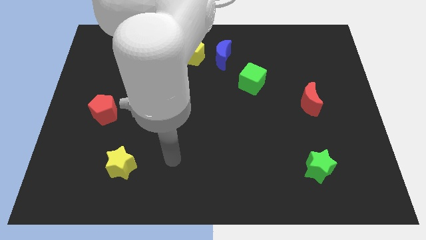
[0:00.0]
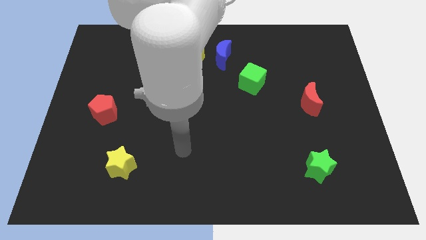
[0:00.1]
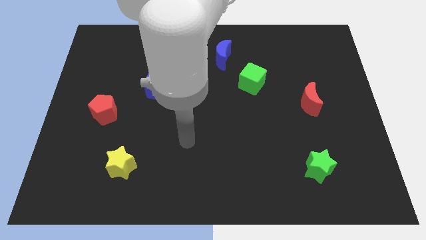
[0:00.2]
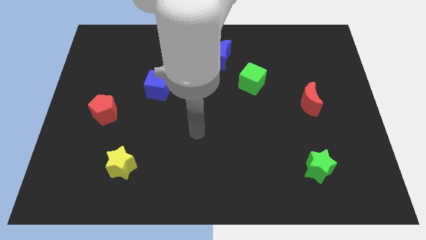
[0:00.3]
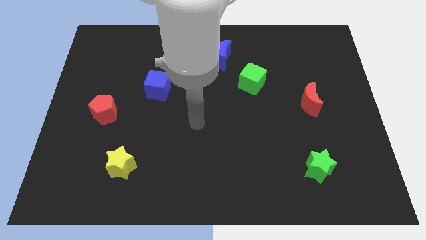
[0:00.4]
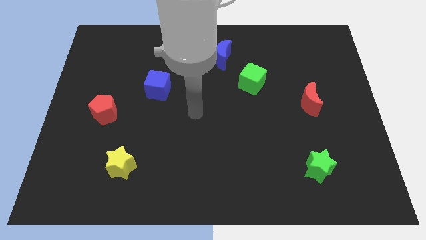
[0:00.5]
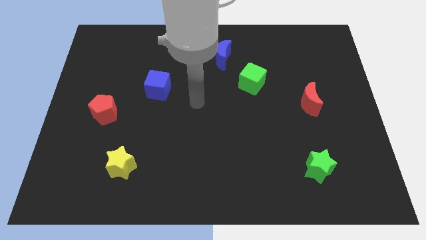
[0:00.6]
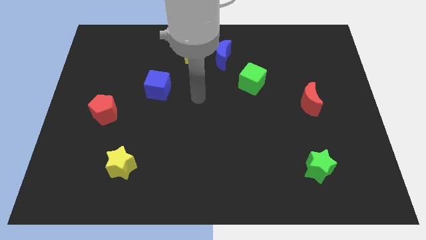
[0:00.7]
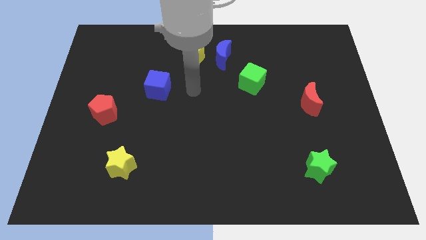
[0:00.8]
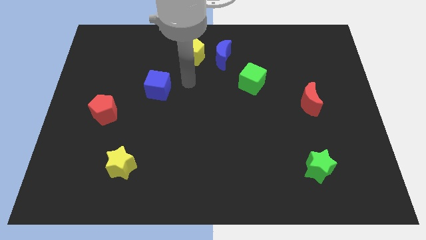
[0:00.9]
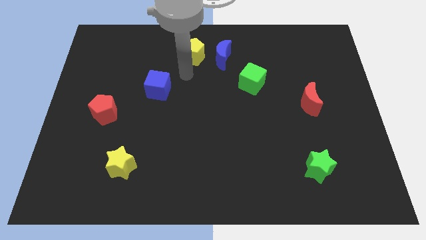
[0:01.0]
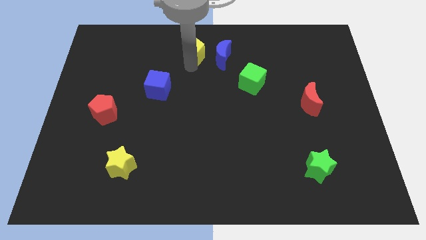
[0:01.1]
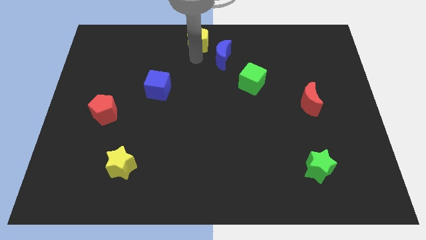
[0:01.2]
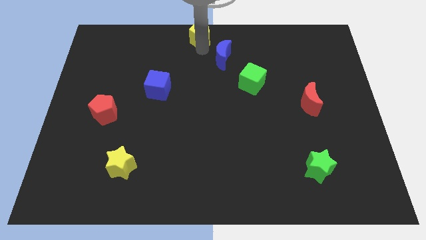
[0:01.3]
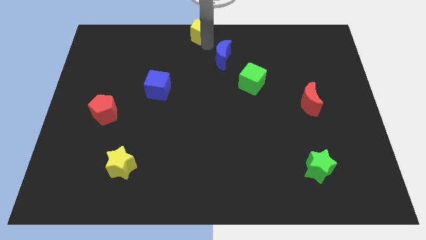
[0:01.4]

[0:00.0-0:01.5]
separate the blue moon from the yellow pentagon

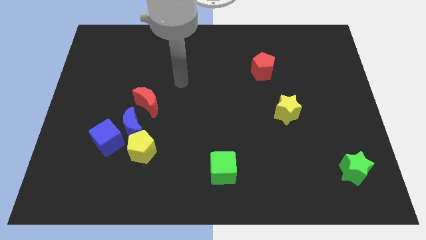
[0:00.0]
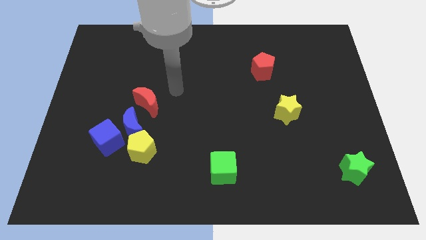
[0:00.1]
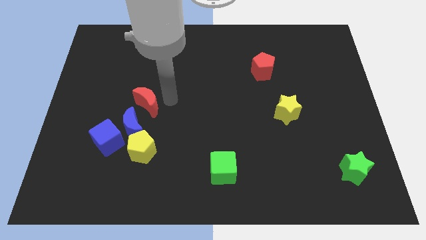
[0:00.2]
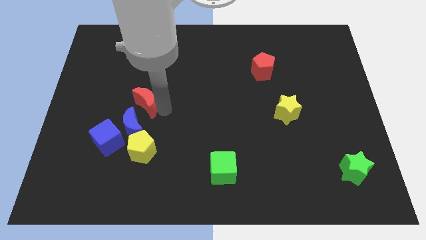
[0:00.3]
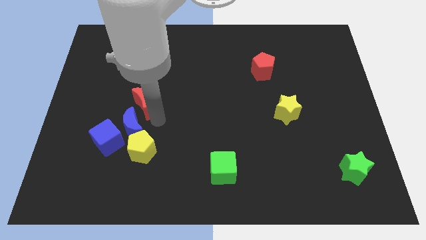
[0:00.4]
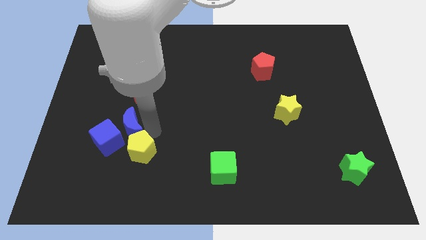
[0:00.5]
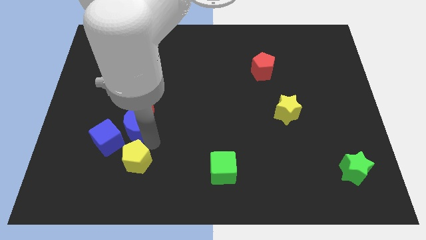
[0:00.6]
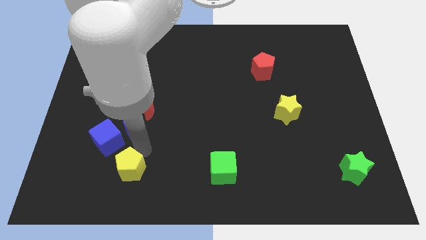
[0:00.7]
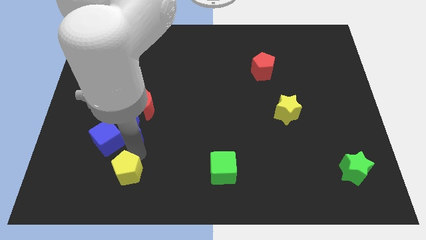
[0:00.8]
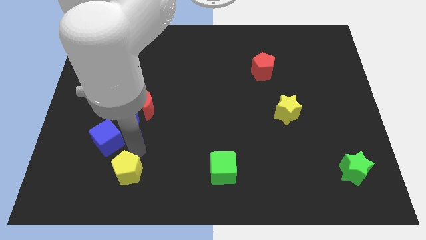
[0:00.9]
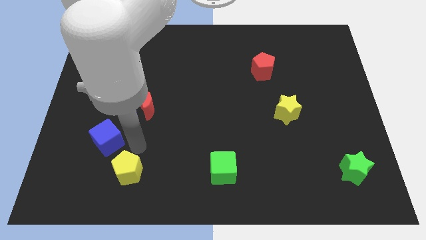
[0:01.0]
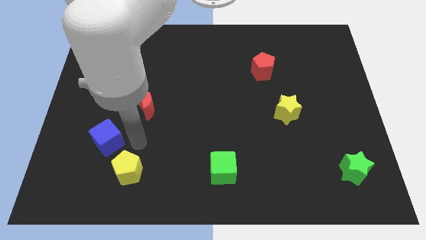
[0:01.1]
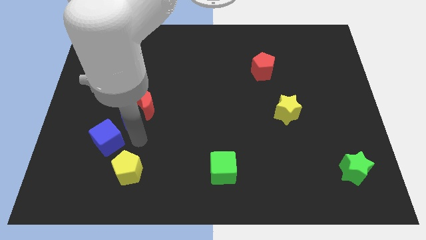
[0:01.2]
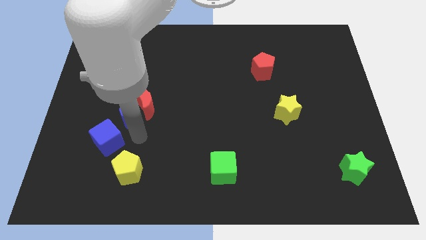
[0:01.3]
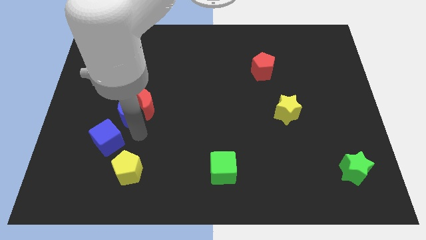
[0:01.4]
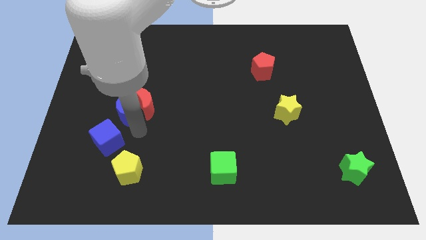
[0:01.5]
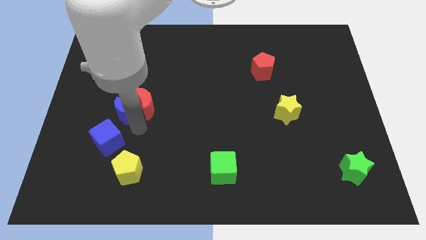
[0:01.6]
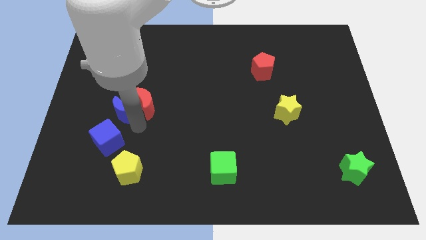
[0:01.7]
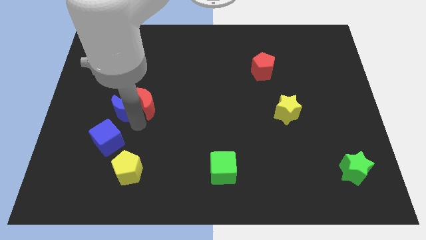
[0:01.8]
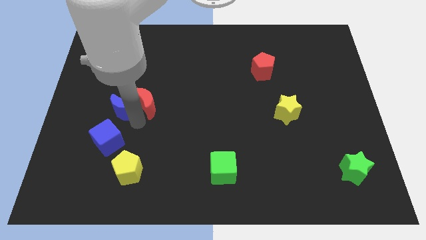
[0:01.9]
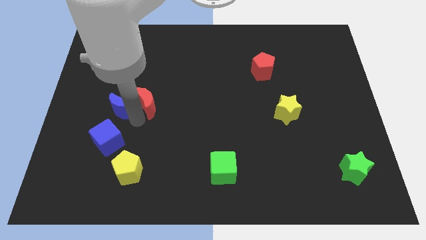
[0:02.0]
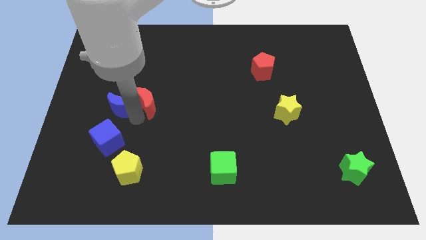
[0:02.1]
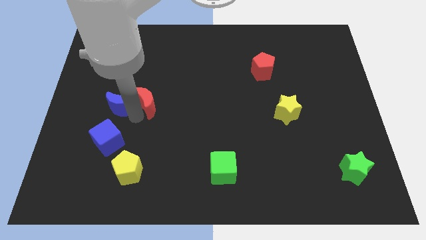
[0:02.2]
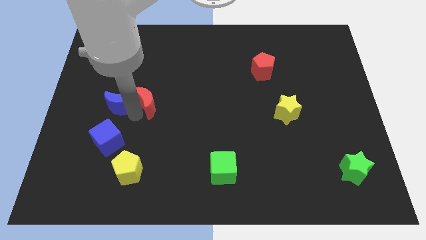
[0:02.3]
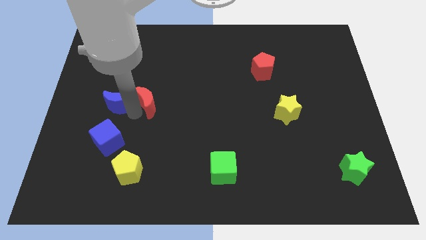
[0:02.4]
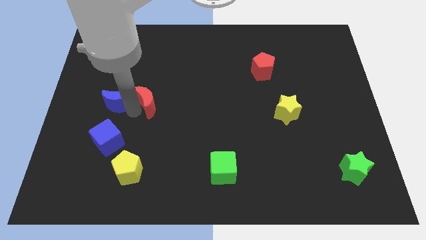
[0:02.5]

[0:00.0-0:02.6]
move the blue moon away from the group of blocks

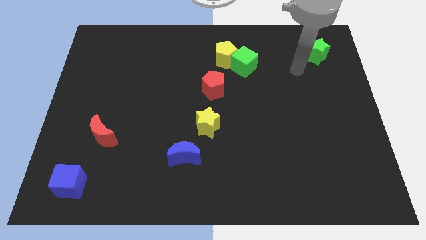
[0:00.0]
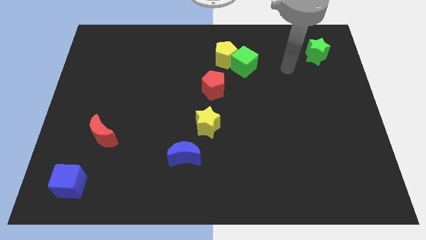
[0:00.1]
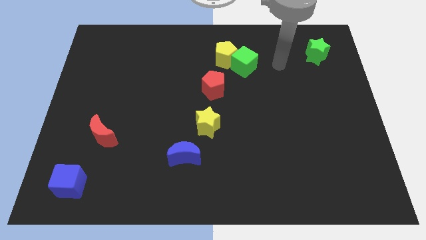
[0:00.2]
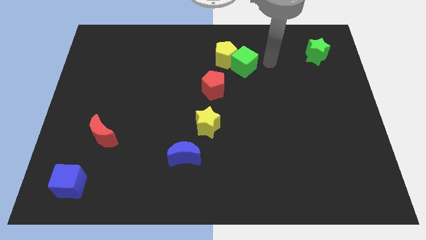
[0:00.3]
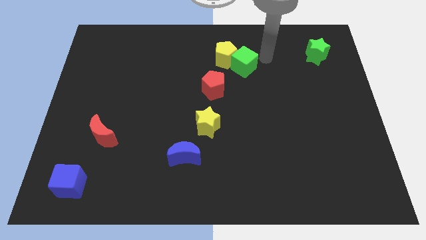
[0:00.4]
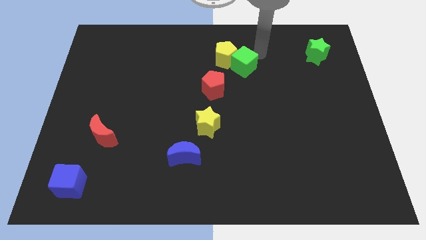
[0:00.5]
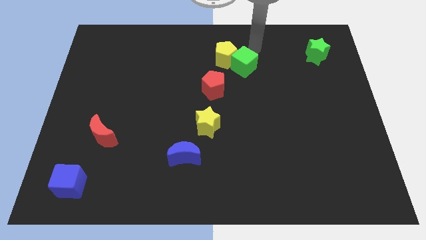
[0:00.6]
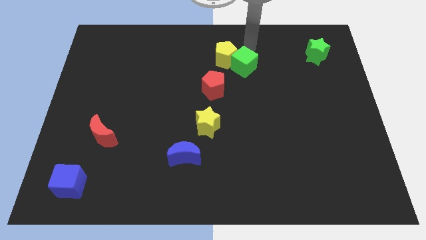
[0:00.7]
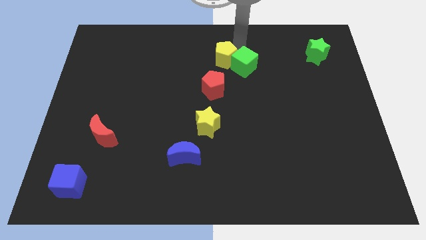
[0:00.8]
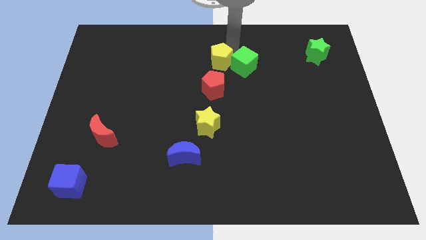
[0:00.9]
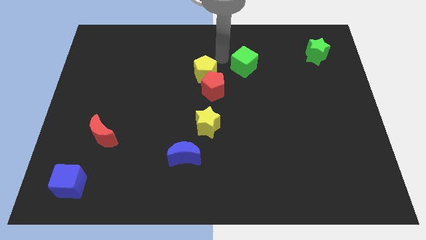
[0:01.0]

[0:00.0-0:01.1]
move the green cube away from the yellow pentagon

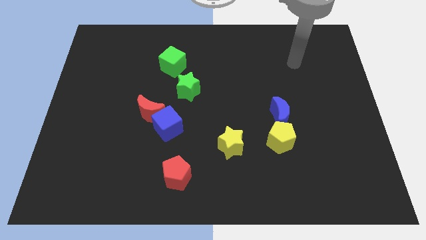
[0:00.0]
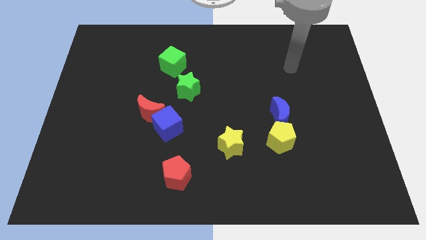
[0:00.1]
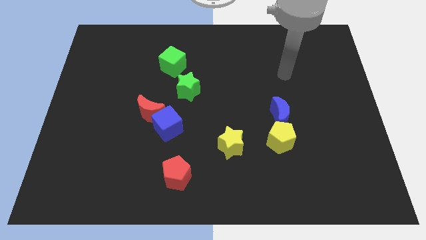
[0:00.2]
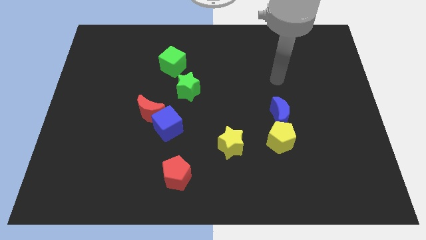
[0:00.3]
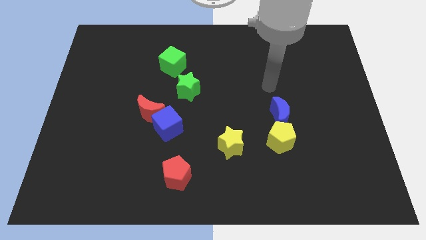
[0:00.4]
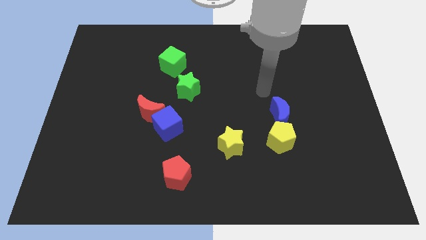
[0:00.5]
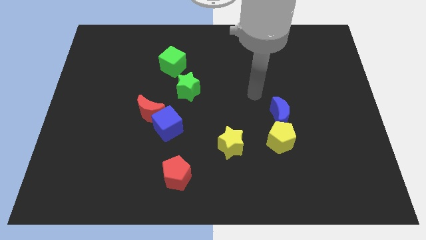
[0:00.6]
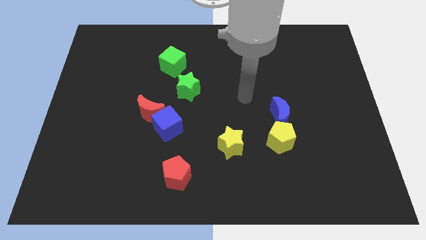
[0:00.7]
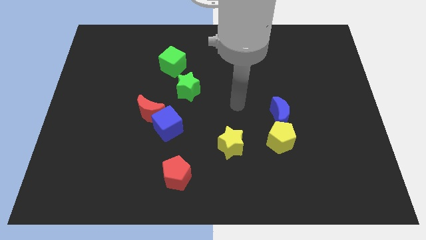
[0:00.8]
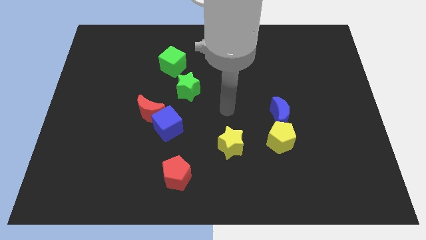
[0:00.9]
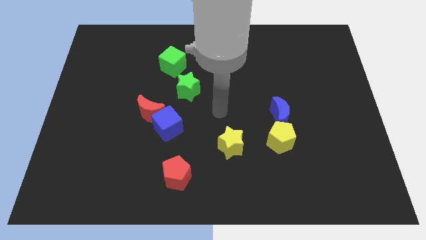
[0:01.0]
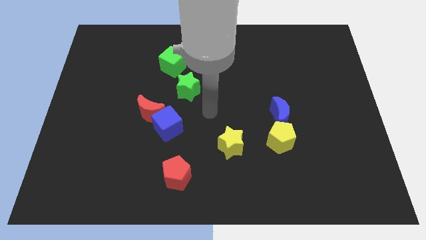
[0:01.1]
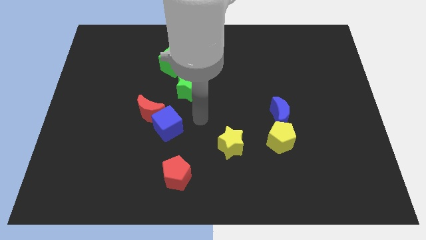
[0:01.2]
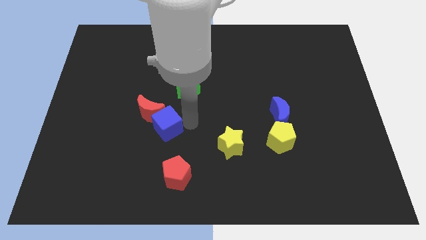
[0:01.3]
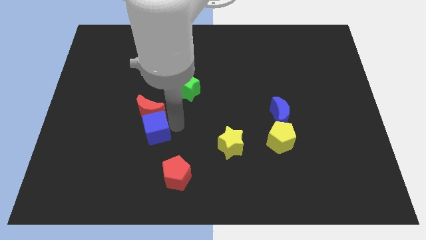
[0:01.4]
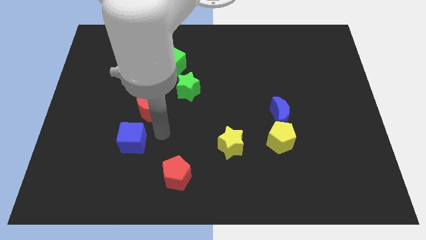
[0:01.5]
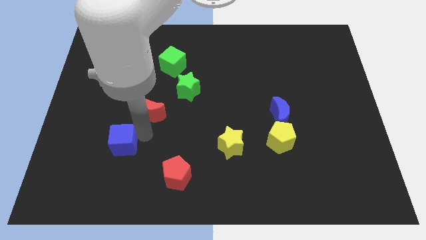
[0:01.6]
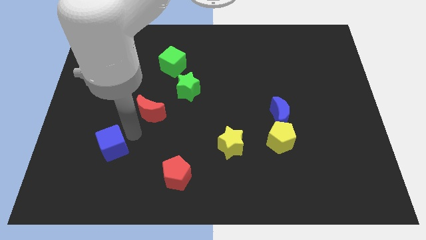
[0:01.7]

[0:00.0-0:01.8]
separate the red moon from the blue cube

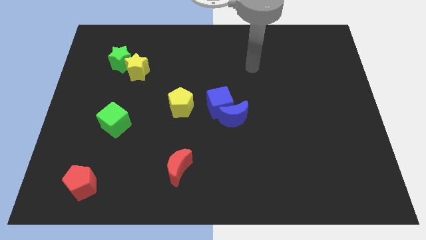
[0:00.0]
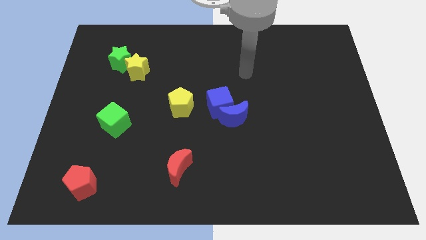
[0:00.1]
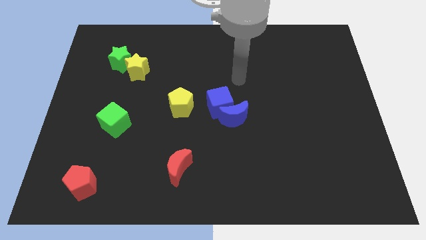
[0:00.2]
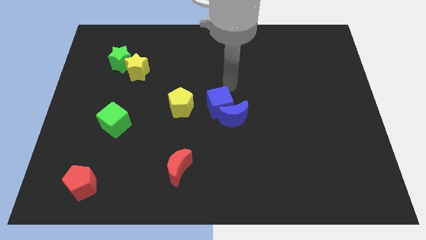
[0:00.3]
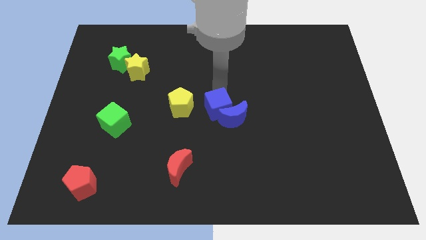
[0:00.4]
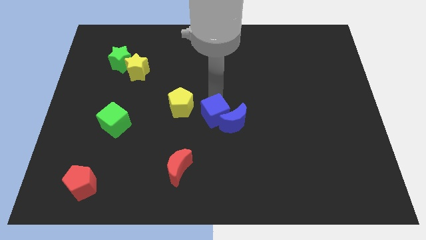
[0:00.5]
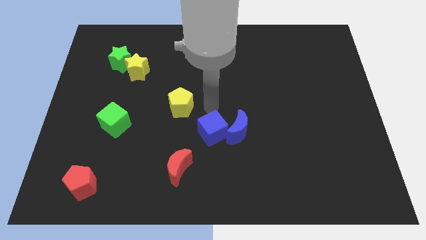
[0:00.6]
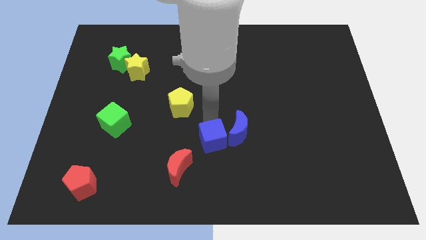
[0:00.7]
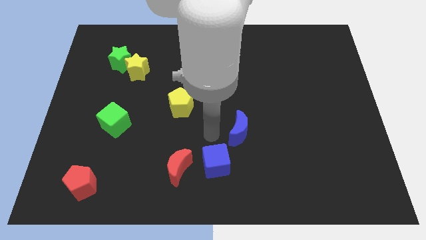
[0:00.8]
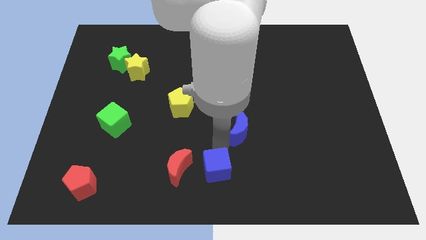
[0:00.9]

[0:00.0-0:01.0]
separate the blue moon from the blue cube

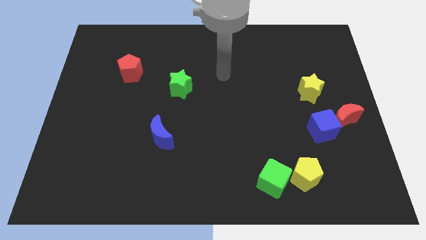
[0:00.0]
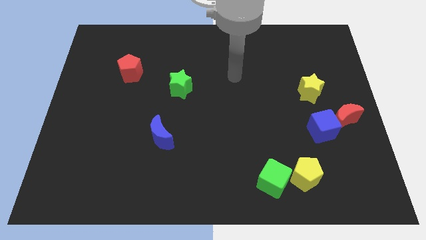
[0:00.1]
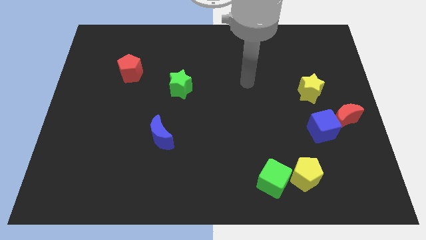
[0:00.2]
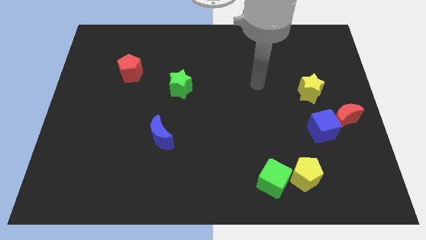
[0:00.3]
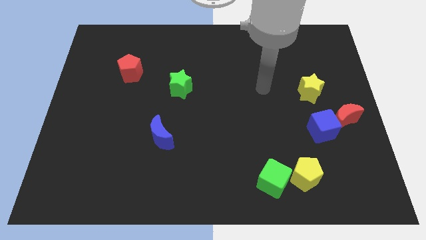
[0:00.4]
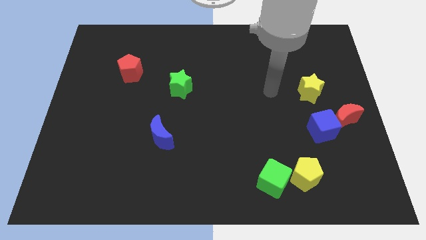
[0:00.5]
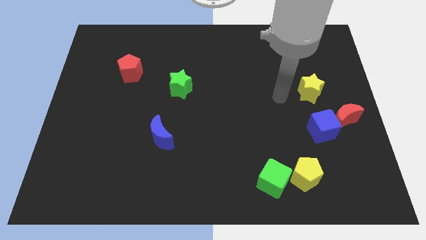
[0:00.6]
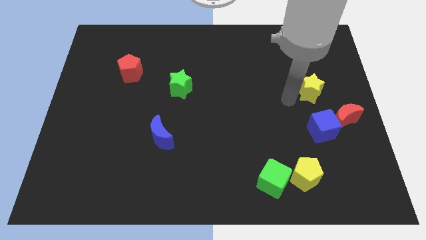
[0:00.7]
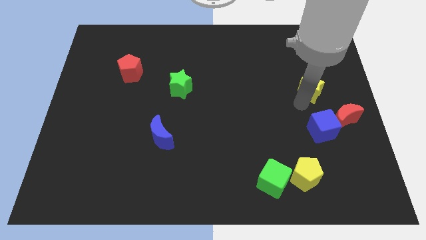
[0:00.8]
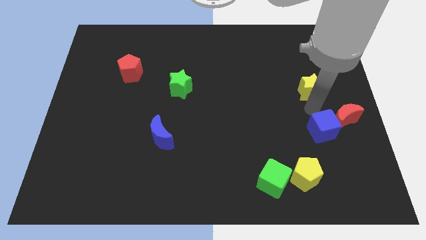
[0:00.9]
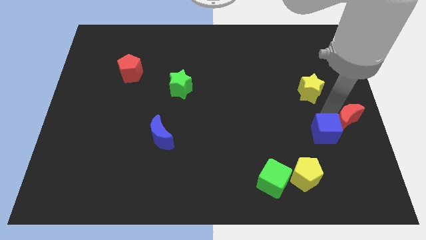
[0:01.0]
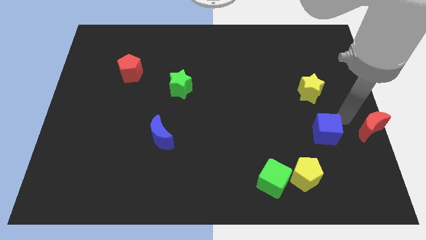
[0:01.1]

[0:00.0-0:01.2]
separate the blue cube from the red moon

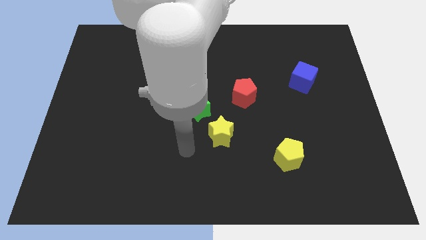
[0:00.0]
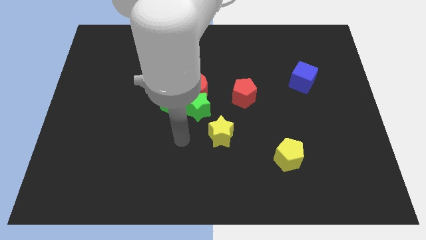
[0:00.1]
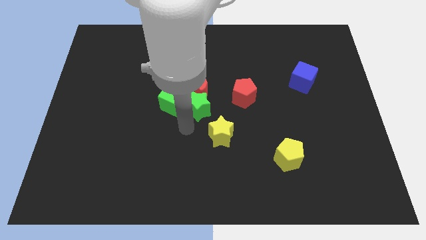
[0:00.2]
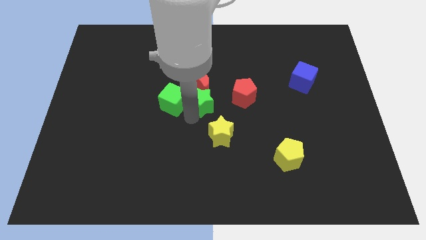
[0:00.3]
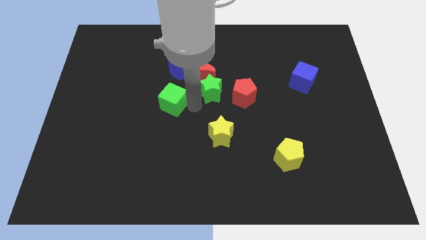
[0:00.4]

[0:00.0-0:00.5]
move the green cube away from the green star and red moon
